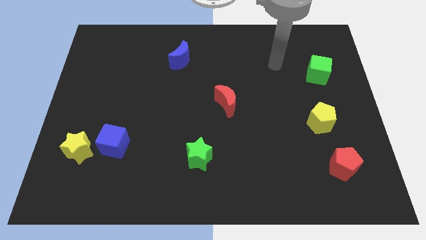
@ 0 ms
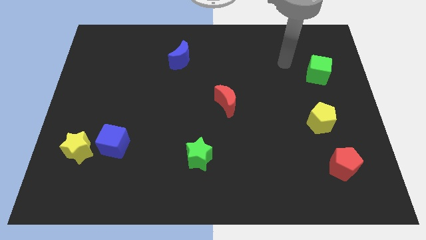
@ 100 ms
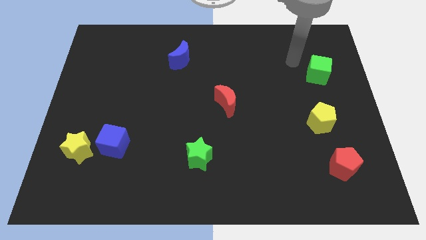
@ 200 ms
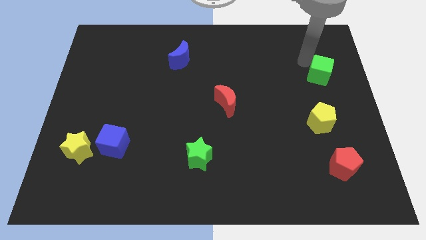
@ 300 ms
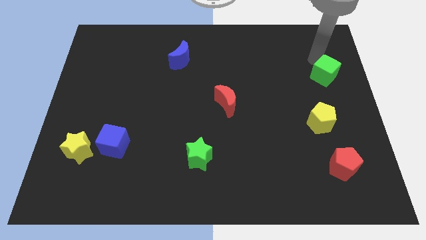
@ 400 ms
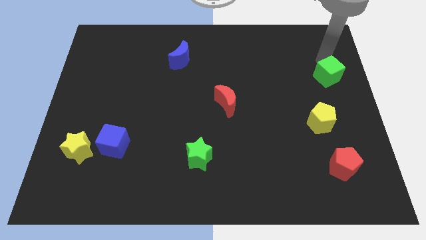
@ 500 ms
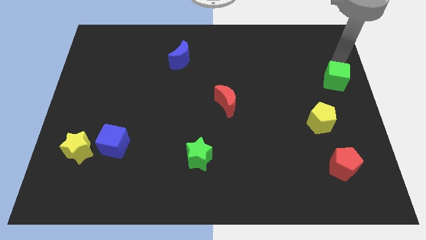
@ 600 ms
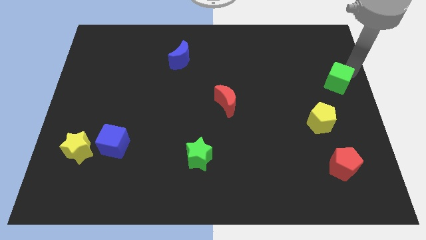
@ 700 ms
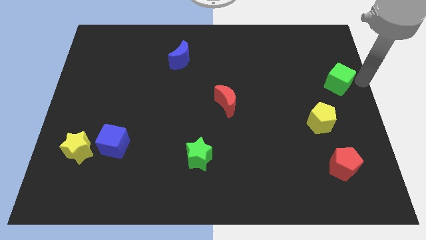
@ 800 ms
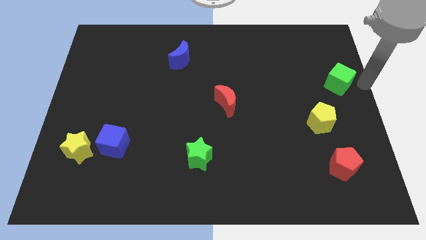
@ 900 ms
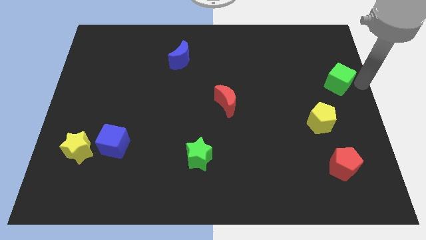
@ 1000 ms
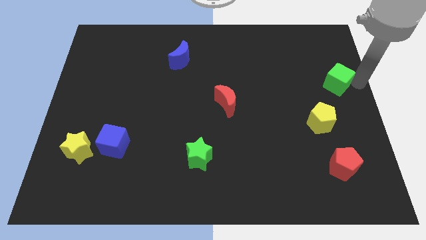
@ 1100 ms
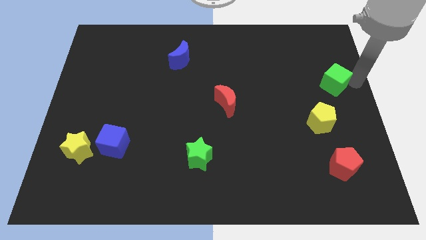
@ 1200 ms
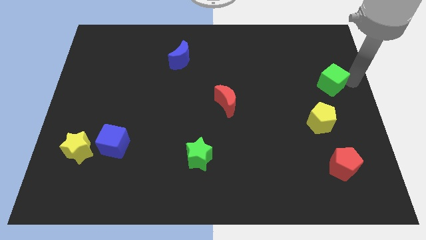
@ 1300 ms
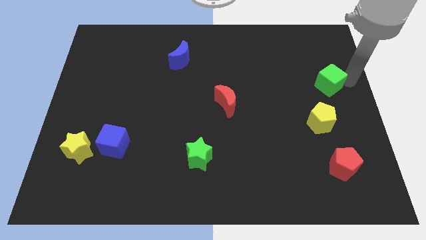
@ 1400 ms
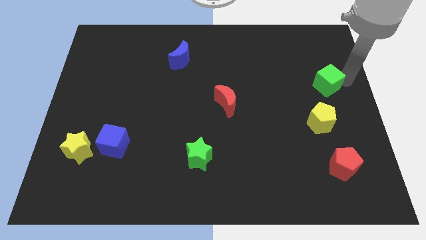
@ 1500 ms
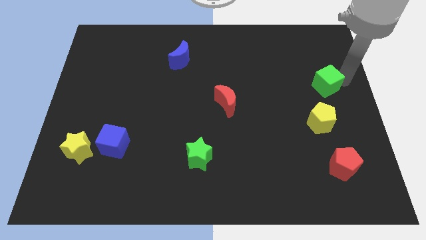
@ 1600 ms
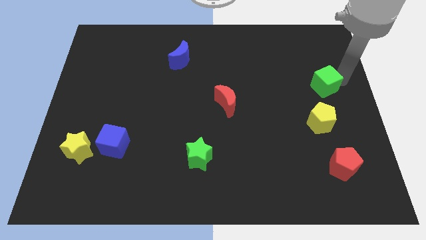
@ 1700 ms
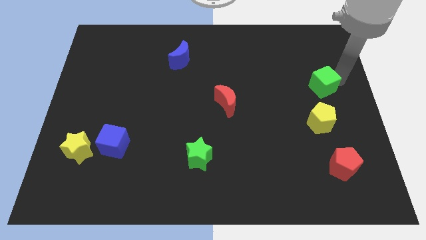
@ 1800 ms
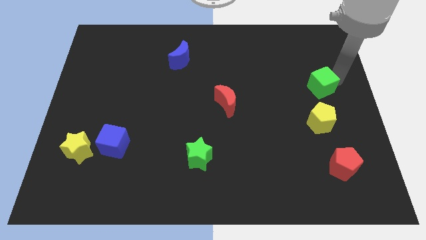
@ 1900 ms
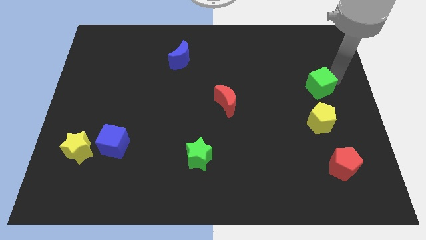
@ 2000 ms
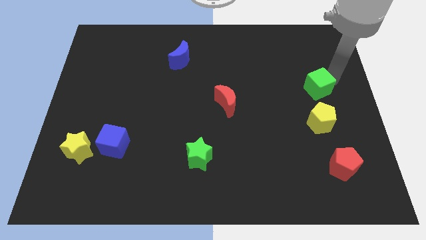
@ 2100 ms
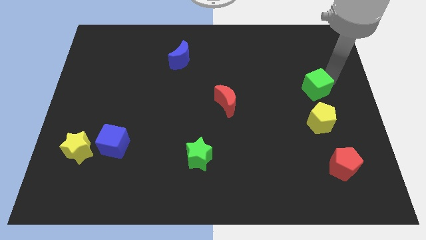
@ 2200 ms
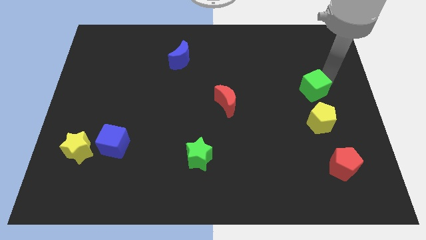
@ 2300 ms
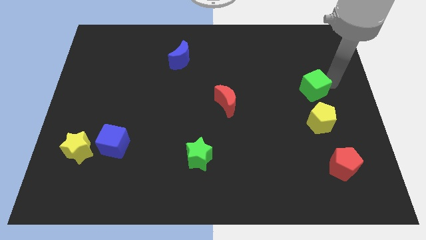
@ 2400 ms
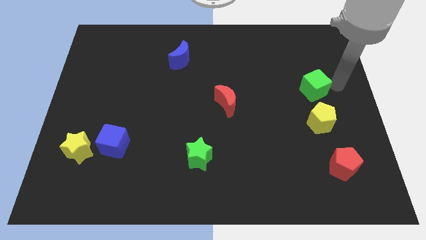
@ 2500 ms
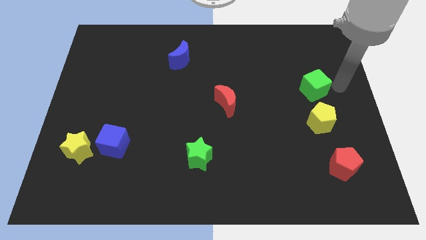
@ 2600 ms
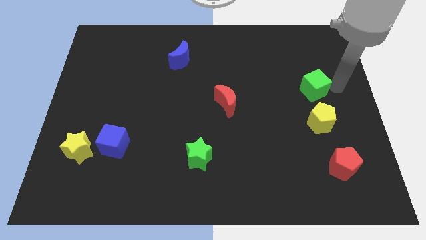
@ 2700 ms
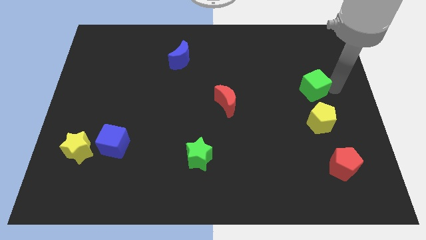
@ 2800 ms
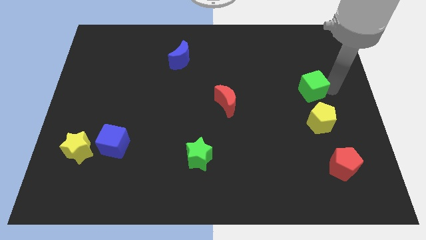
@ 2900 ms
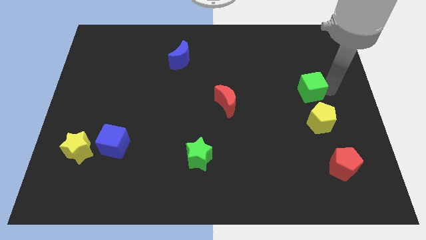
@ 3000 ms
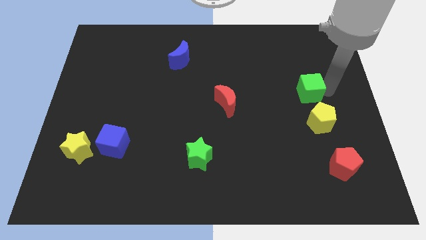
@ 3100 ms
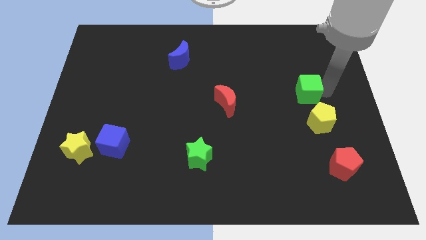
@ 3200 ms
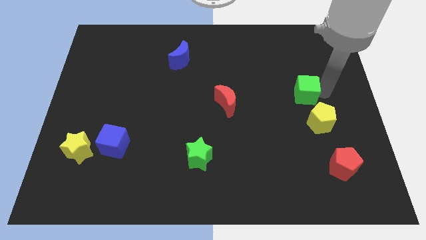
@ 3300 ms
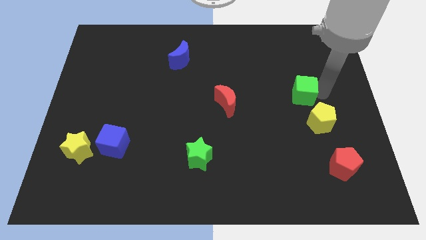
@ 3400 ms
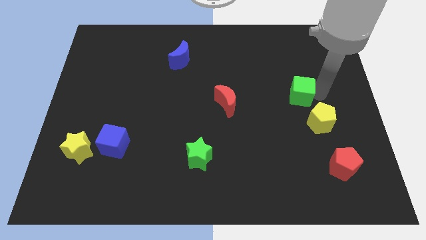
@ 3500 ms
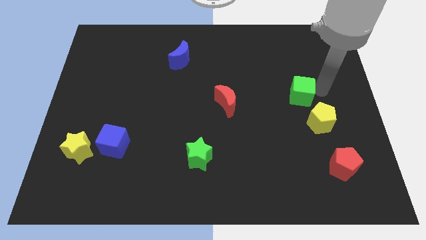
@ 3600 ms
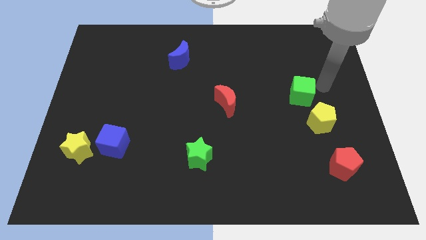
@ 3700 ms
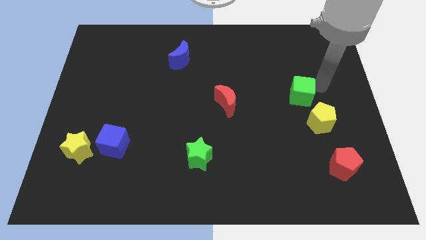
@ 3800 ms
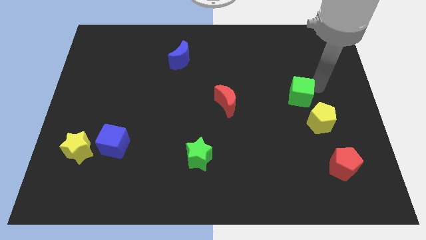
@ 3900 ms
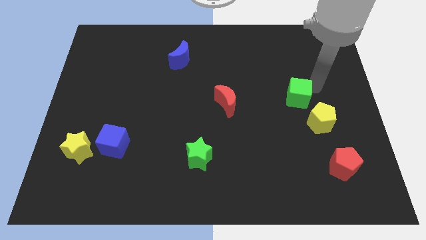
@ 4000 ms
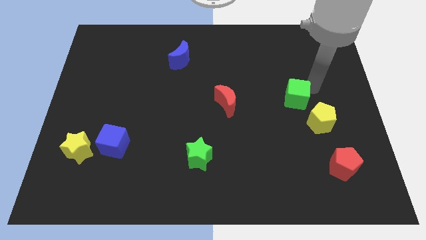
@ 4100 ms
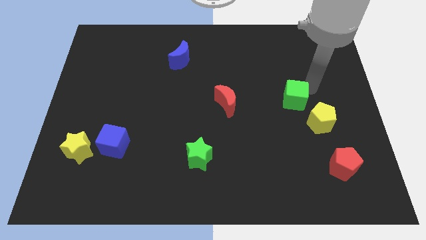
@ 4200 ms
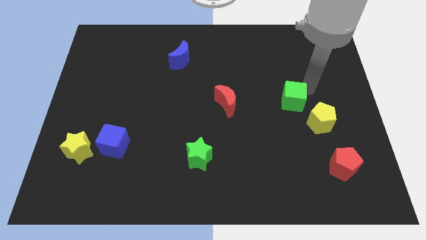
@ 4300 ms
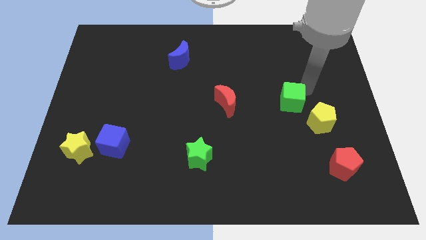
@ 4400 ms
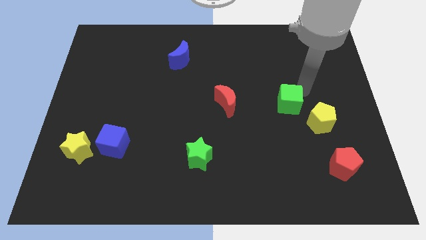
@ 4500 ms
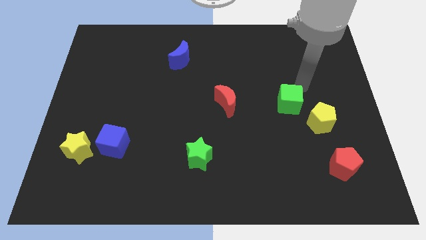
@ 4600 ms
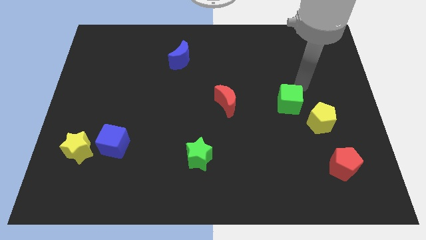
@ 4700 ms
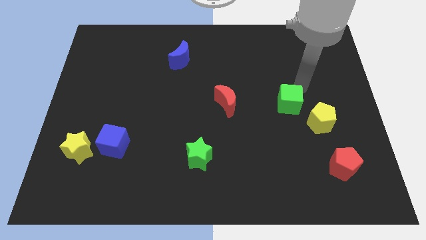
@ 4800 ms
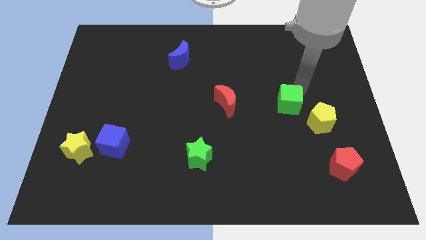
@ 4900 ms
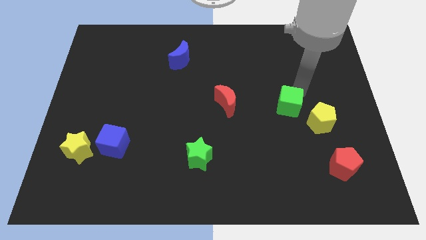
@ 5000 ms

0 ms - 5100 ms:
put the green cube to the left side of the yellow pentagon

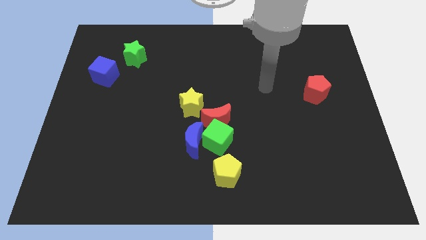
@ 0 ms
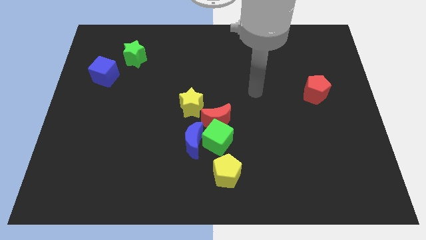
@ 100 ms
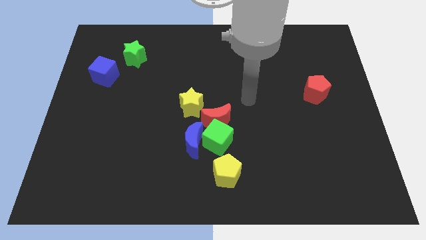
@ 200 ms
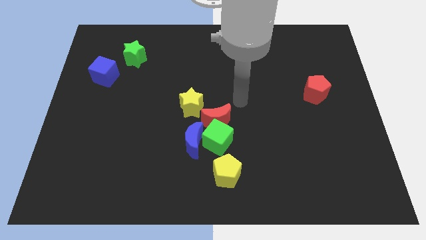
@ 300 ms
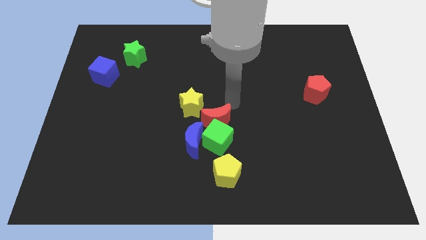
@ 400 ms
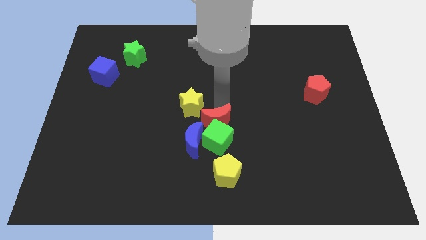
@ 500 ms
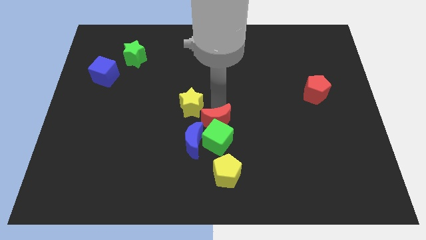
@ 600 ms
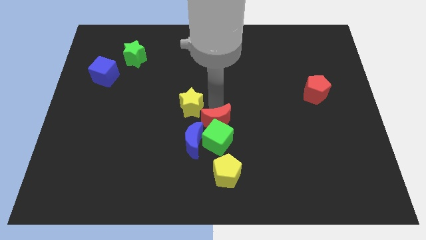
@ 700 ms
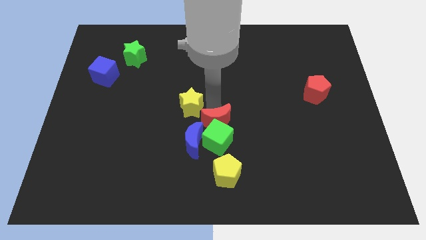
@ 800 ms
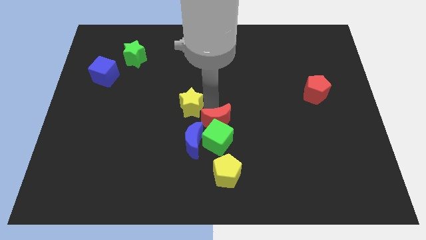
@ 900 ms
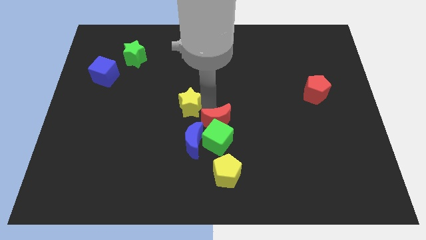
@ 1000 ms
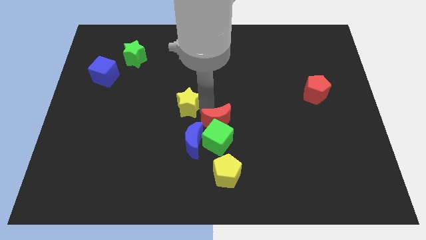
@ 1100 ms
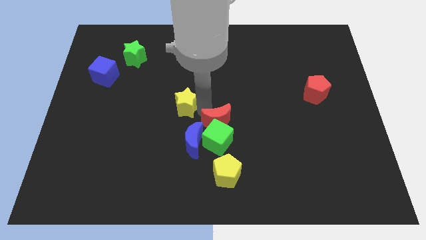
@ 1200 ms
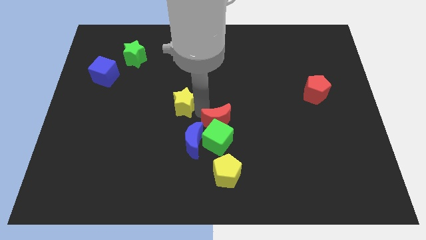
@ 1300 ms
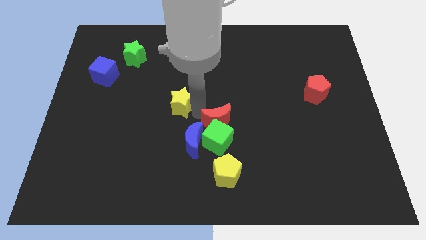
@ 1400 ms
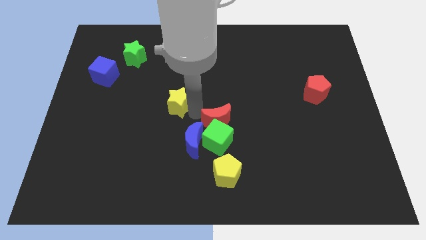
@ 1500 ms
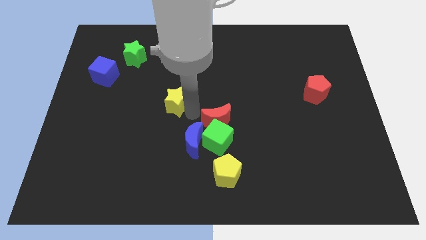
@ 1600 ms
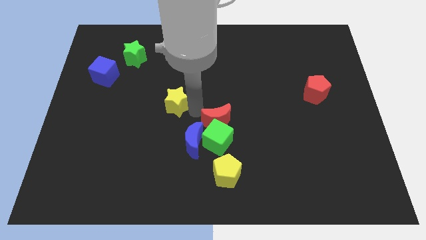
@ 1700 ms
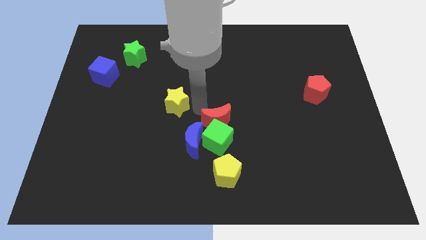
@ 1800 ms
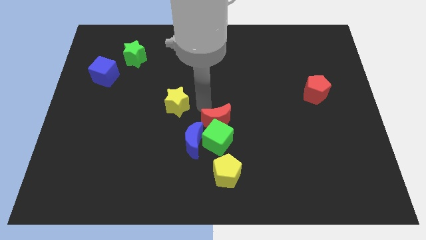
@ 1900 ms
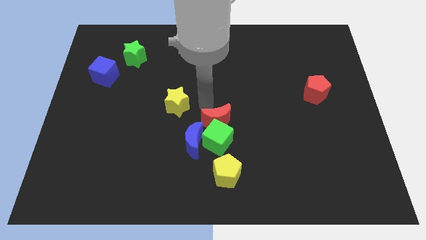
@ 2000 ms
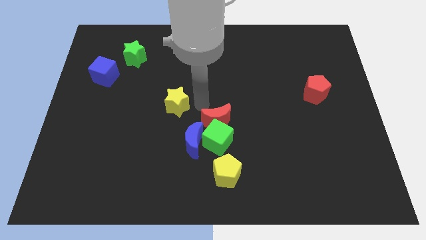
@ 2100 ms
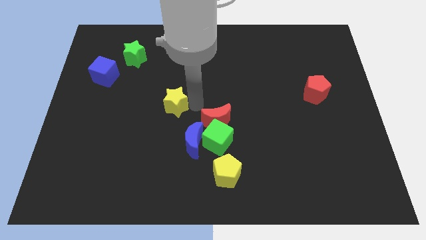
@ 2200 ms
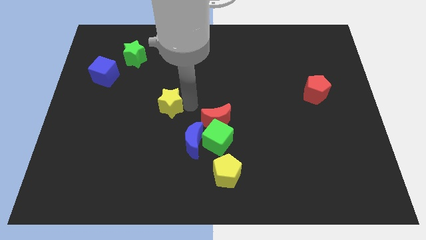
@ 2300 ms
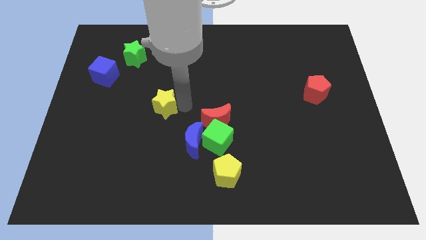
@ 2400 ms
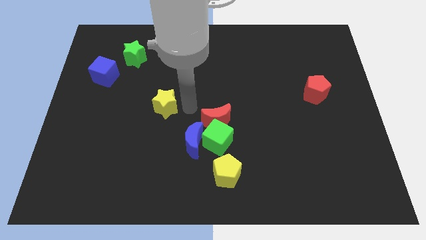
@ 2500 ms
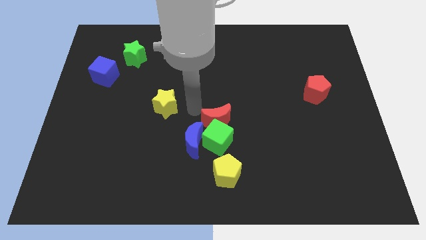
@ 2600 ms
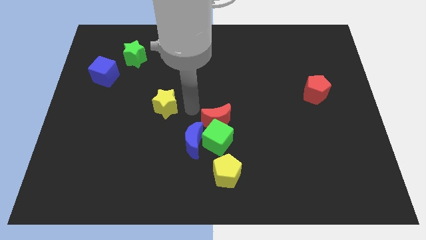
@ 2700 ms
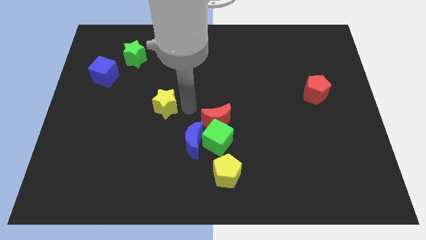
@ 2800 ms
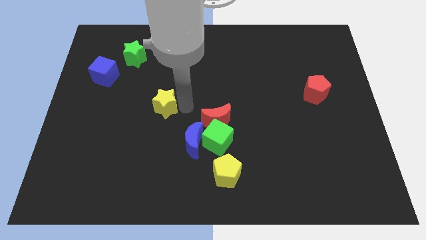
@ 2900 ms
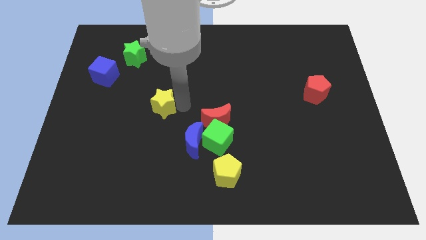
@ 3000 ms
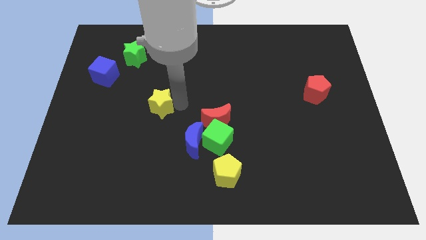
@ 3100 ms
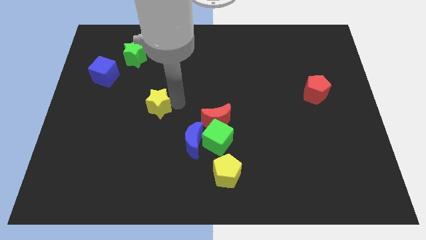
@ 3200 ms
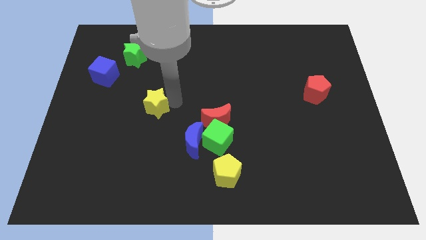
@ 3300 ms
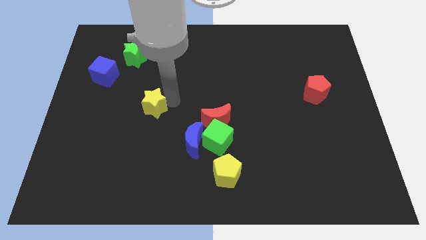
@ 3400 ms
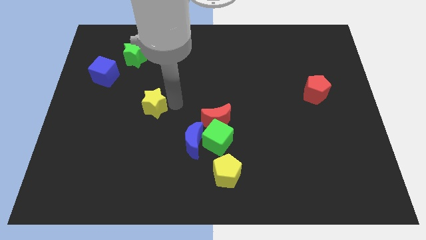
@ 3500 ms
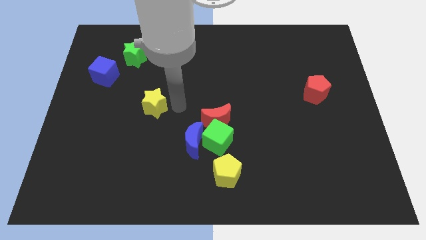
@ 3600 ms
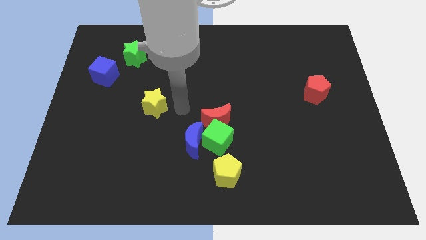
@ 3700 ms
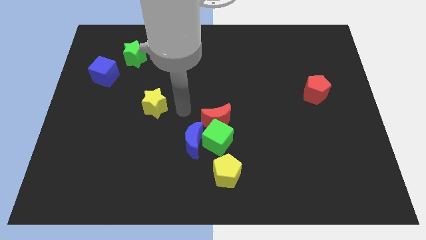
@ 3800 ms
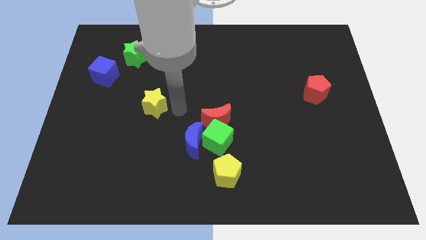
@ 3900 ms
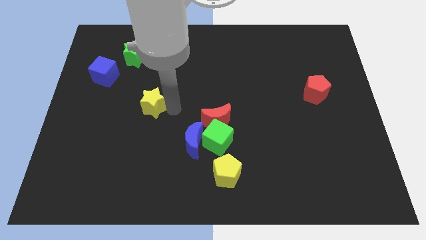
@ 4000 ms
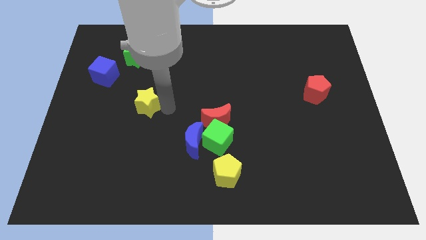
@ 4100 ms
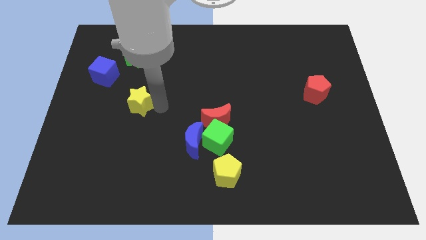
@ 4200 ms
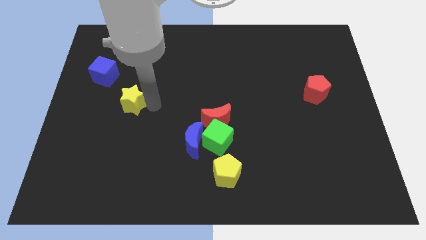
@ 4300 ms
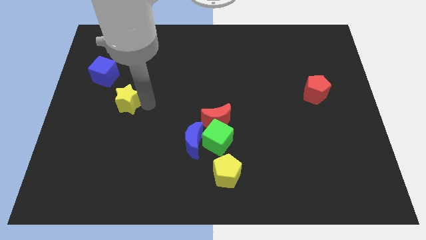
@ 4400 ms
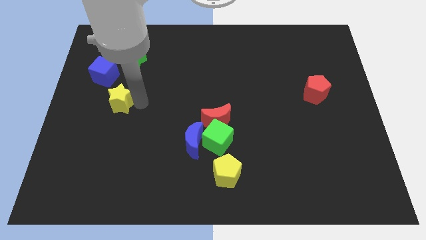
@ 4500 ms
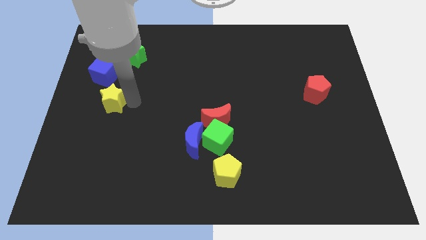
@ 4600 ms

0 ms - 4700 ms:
move the yellow star to the bottom of the blue cube
